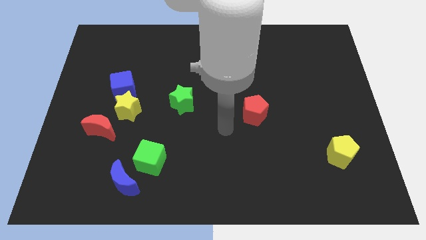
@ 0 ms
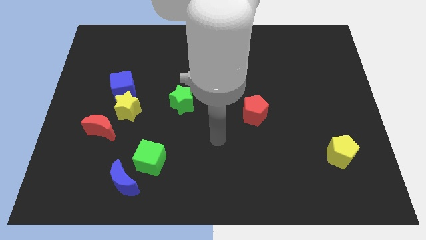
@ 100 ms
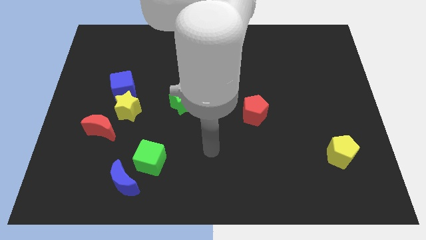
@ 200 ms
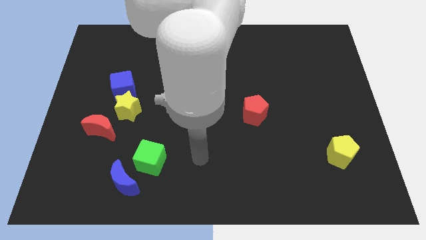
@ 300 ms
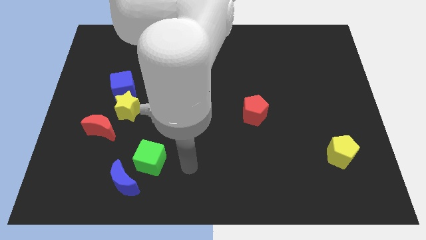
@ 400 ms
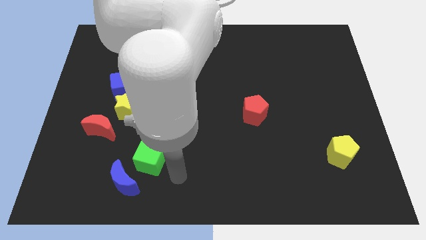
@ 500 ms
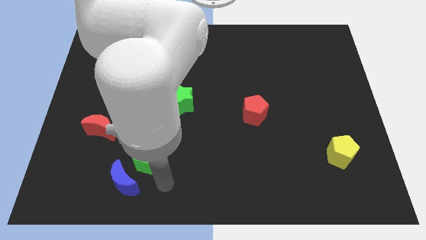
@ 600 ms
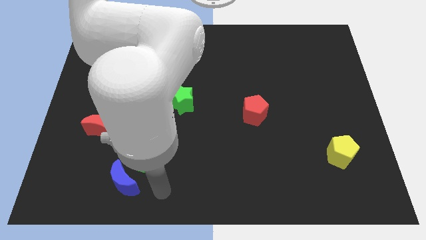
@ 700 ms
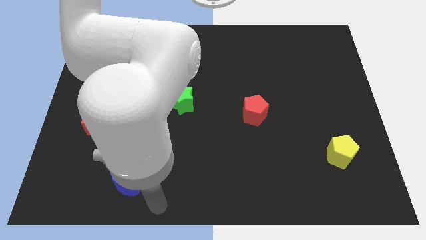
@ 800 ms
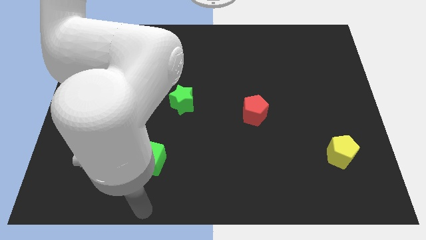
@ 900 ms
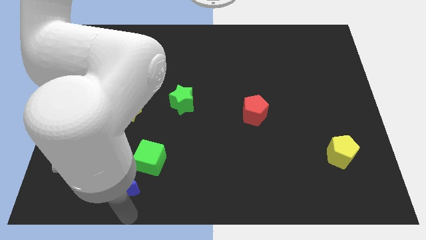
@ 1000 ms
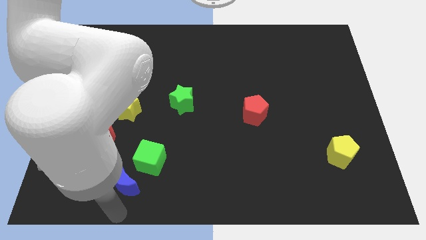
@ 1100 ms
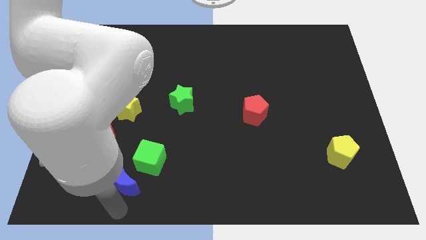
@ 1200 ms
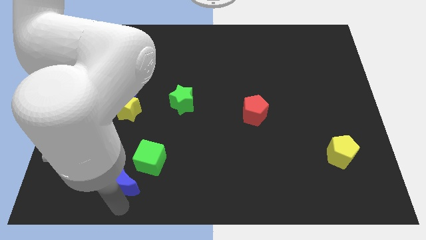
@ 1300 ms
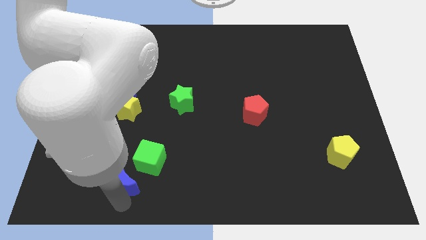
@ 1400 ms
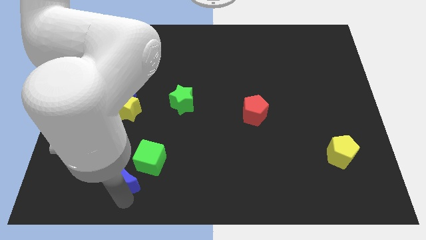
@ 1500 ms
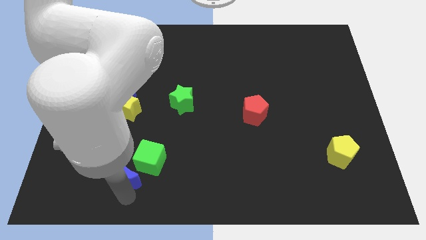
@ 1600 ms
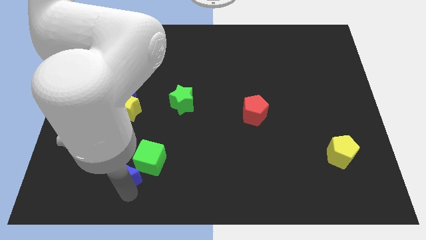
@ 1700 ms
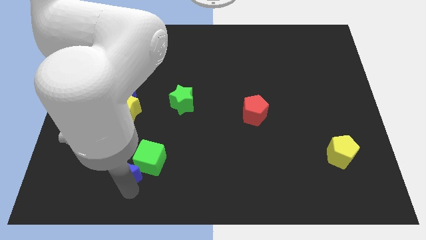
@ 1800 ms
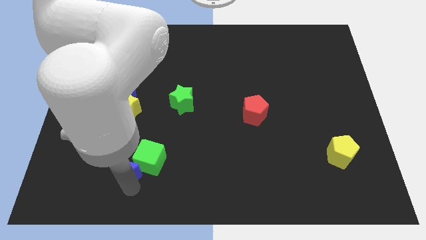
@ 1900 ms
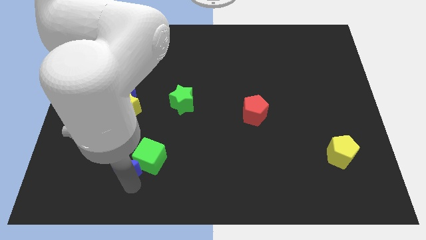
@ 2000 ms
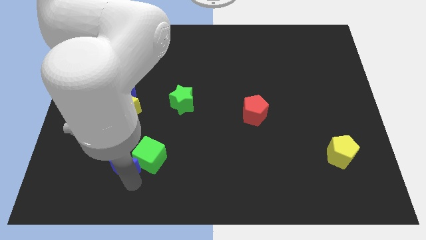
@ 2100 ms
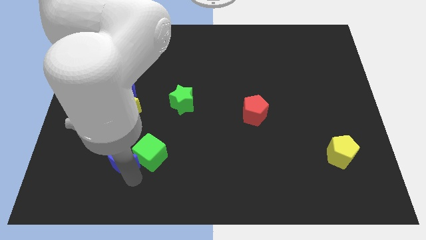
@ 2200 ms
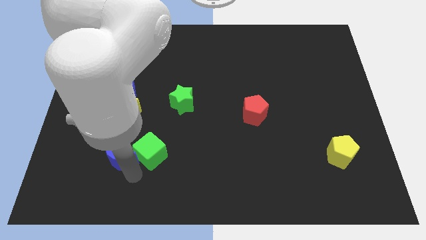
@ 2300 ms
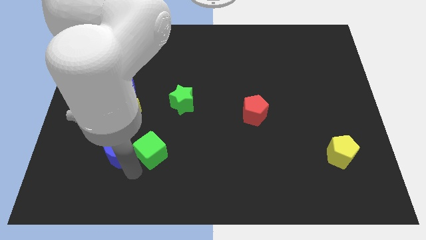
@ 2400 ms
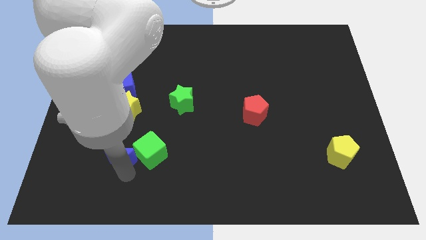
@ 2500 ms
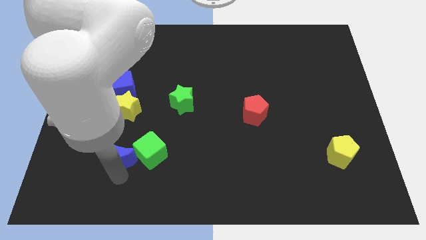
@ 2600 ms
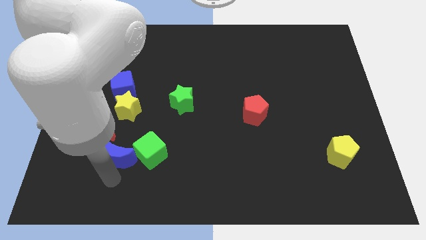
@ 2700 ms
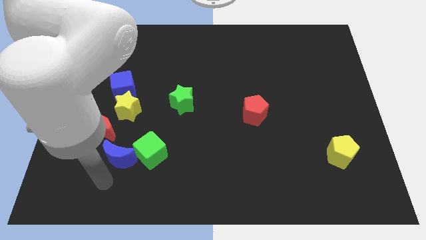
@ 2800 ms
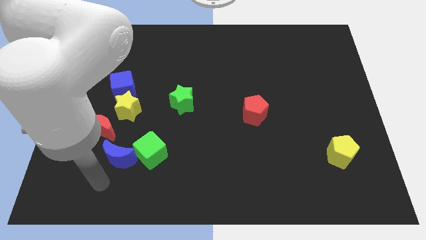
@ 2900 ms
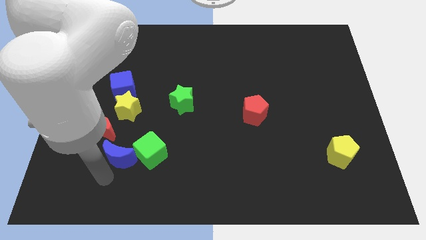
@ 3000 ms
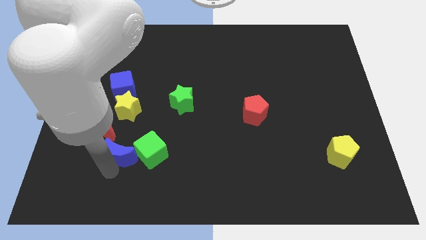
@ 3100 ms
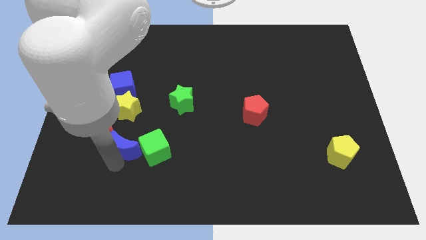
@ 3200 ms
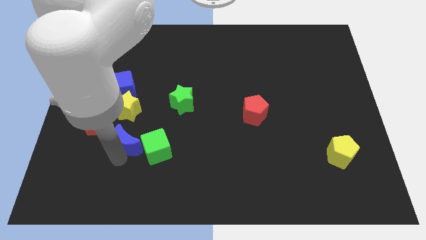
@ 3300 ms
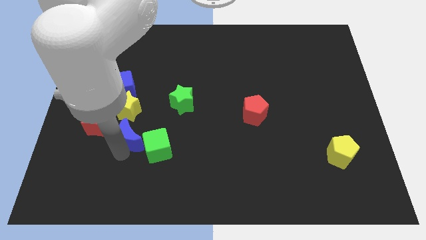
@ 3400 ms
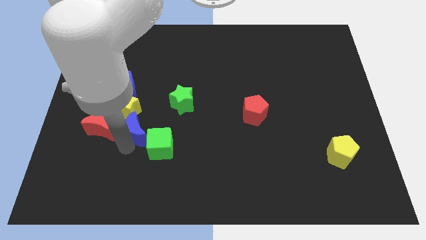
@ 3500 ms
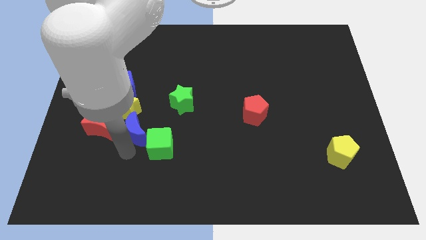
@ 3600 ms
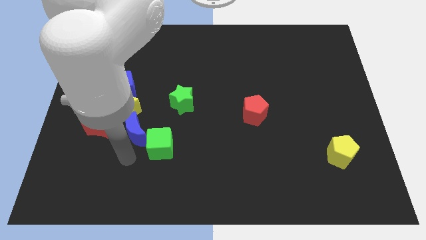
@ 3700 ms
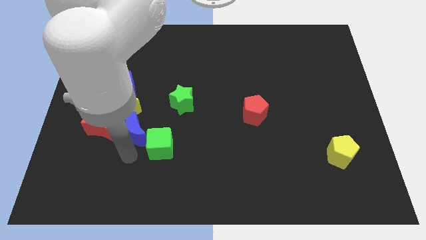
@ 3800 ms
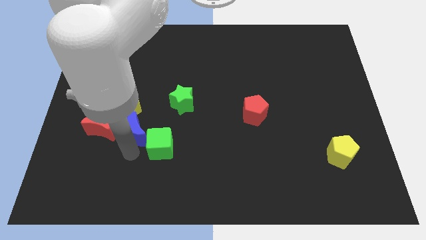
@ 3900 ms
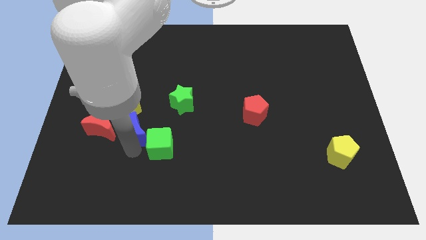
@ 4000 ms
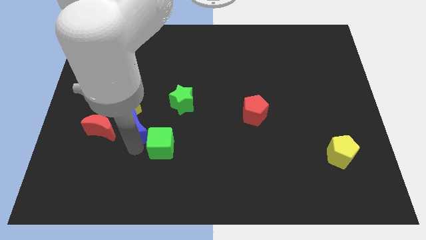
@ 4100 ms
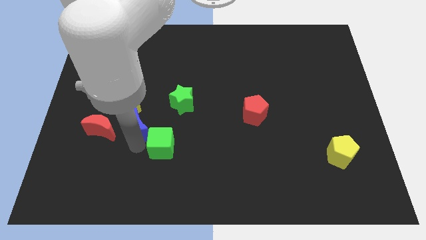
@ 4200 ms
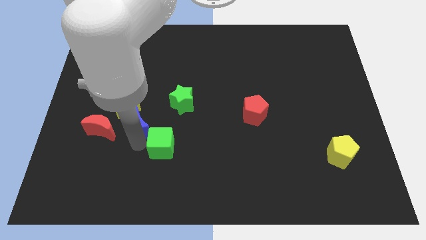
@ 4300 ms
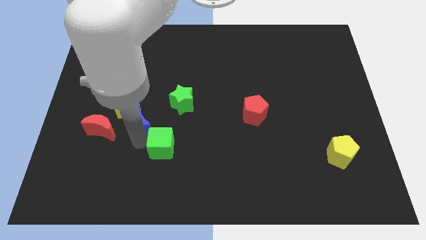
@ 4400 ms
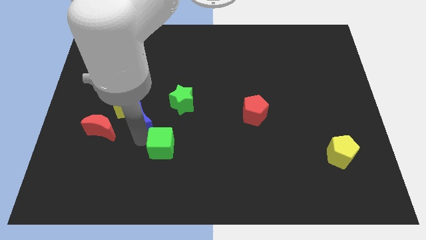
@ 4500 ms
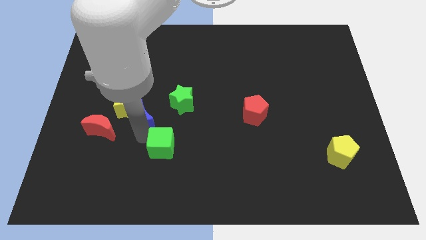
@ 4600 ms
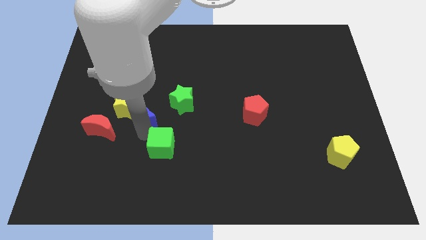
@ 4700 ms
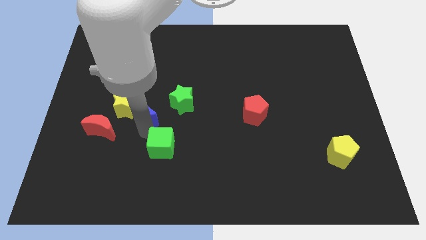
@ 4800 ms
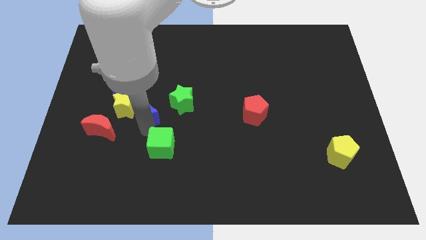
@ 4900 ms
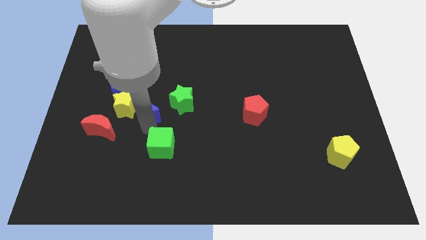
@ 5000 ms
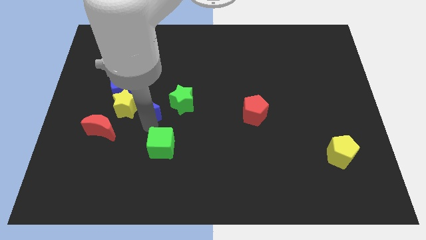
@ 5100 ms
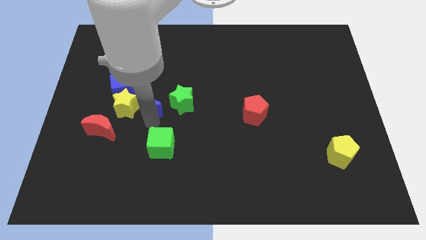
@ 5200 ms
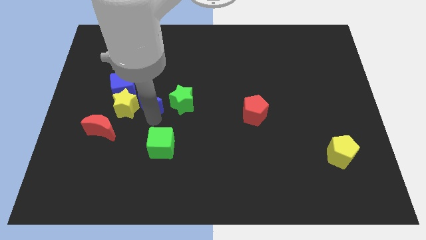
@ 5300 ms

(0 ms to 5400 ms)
slide the blue moon up

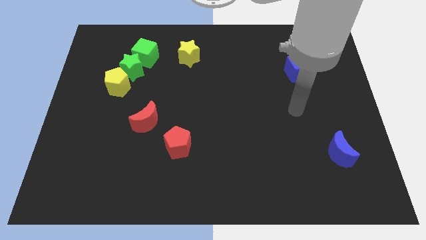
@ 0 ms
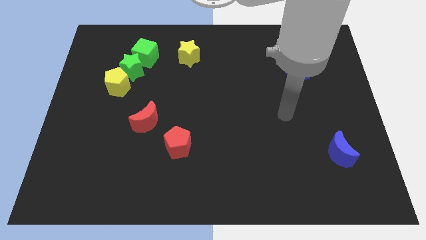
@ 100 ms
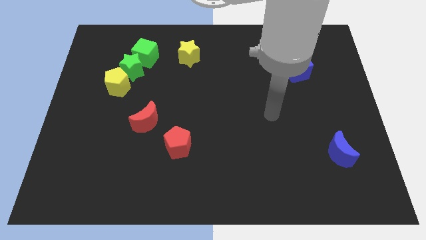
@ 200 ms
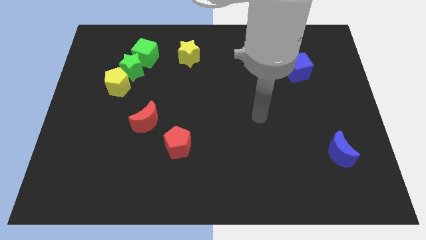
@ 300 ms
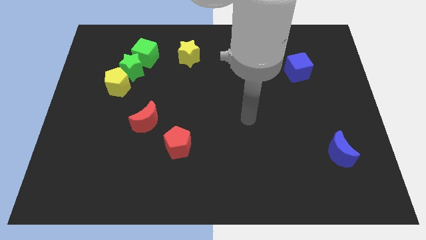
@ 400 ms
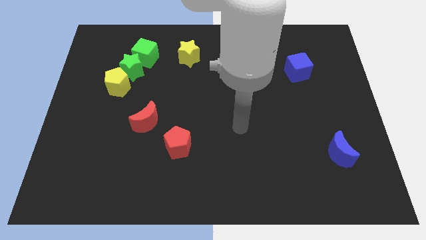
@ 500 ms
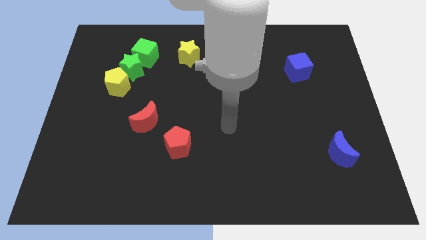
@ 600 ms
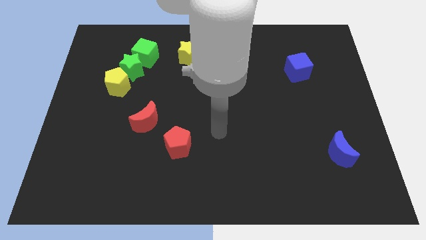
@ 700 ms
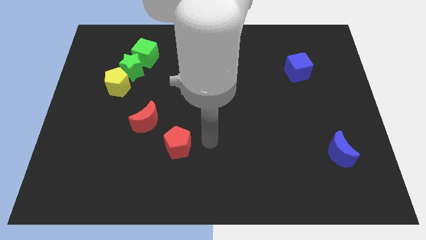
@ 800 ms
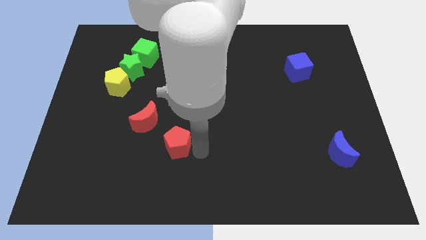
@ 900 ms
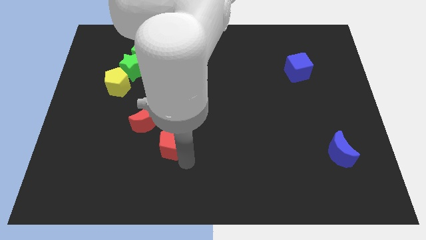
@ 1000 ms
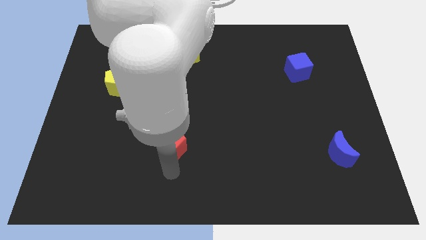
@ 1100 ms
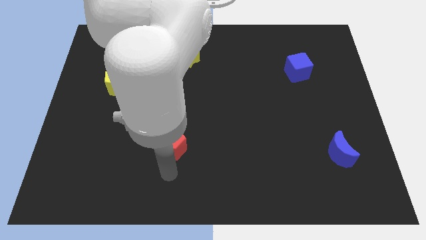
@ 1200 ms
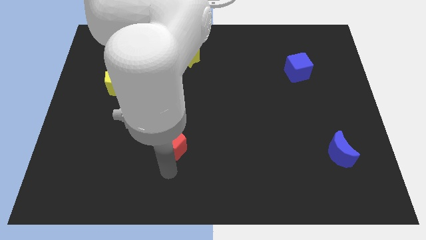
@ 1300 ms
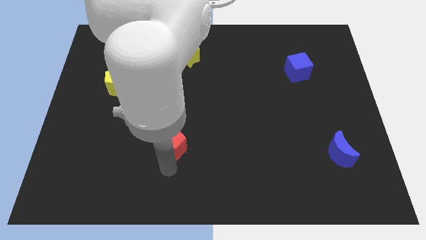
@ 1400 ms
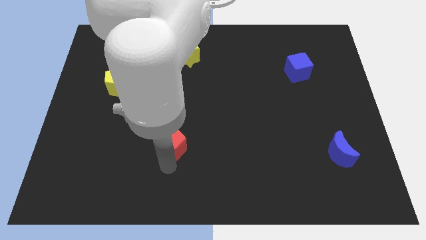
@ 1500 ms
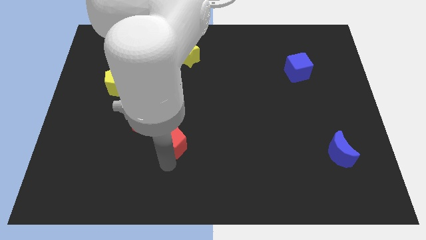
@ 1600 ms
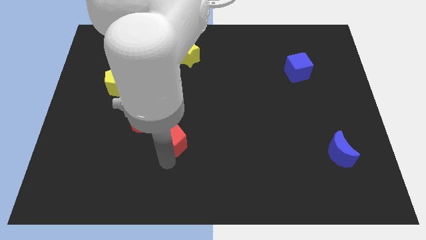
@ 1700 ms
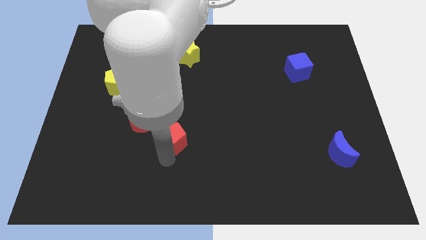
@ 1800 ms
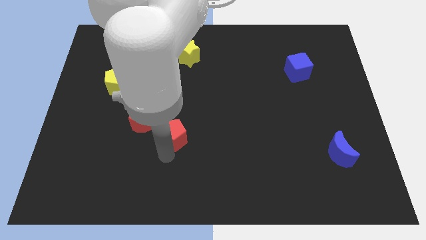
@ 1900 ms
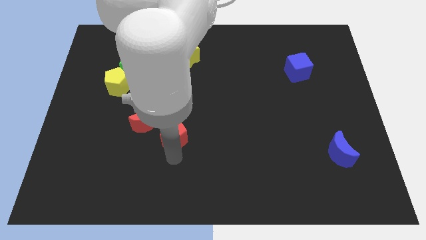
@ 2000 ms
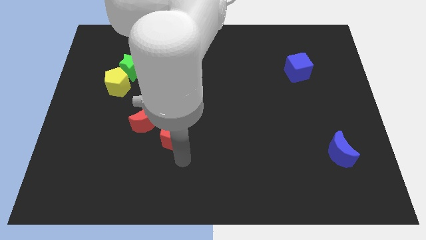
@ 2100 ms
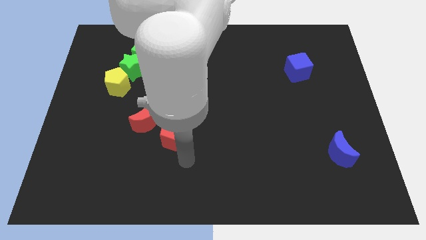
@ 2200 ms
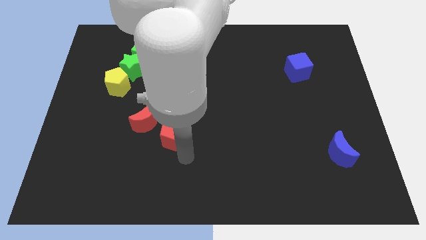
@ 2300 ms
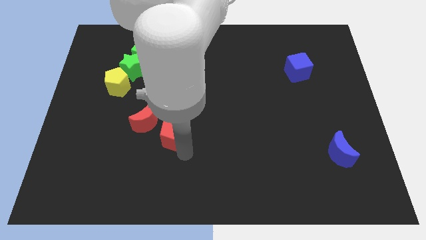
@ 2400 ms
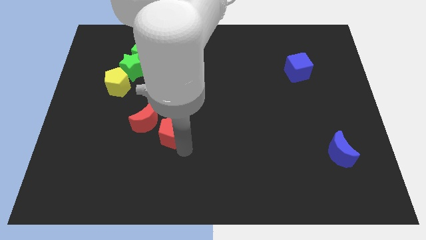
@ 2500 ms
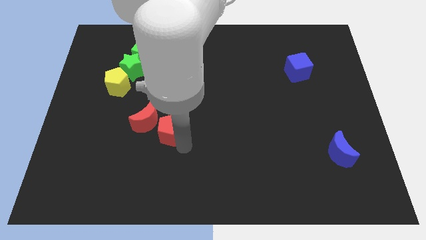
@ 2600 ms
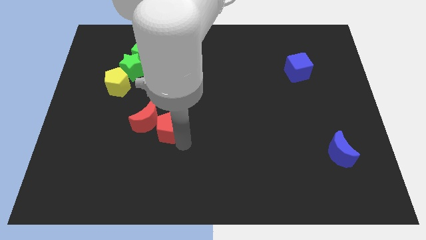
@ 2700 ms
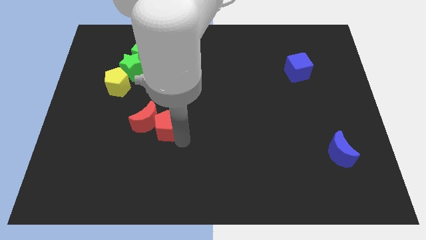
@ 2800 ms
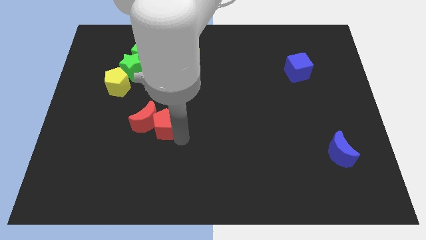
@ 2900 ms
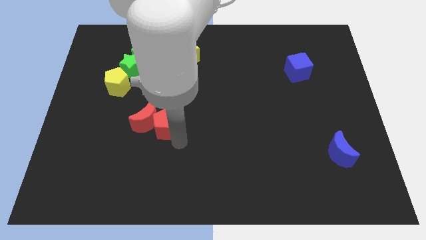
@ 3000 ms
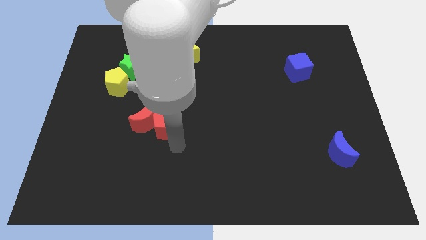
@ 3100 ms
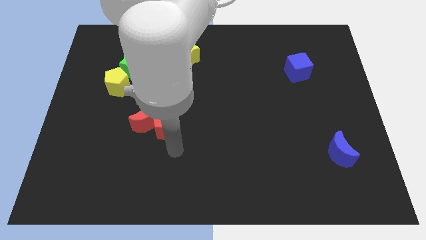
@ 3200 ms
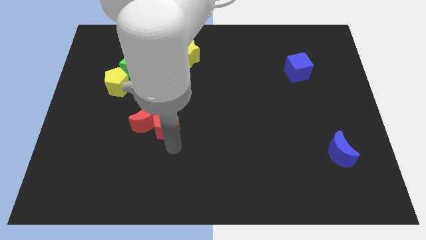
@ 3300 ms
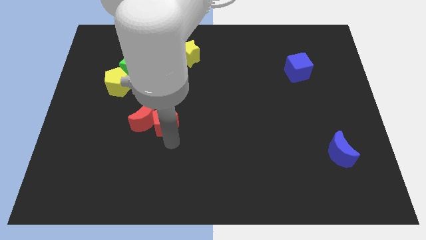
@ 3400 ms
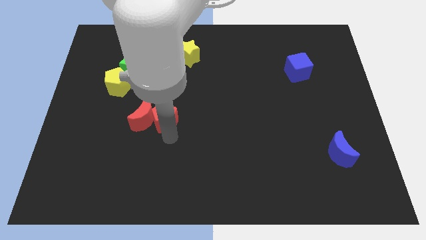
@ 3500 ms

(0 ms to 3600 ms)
push the red pentagon slightly up and left diagonally
